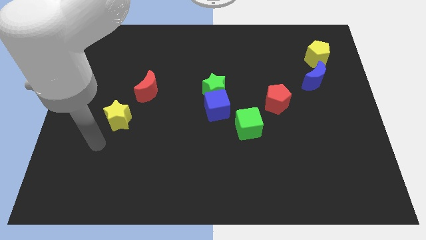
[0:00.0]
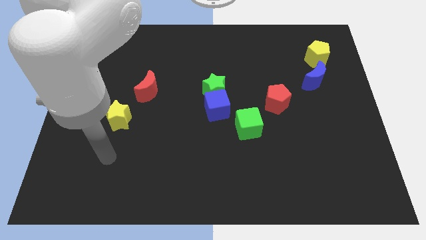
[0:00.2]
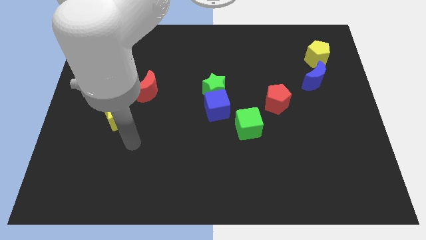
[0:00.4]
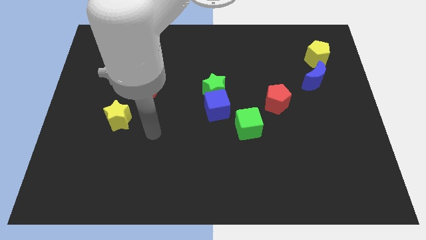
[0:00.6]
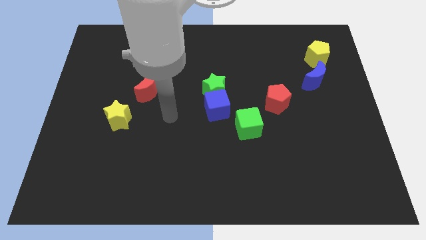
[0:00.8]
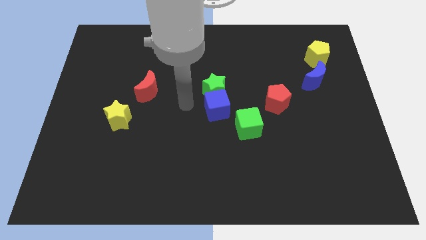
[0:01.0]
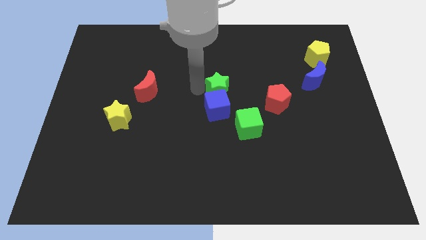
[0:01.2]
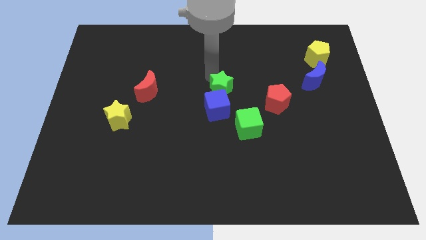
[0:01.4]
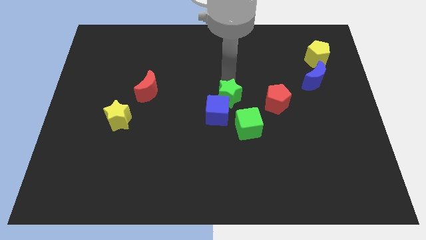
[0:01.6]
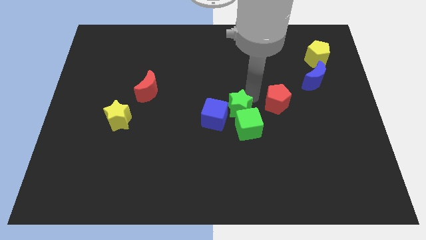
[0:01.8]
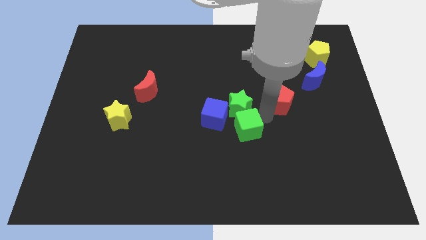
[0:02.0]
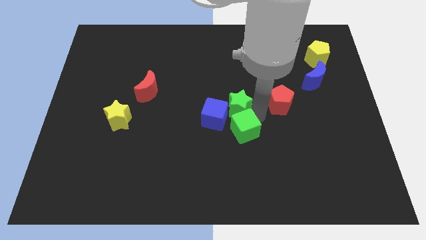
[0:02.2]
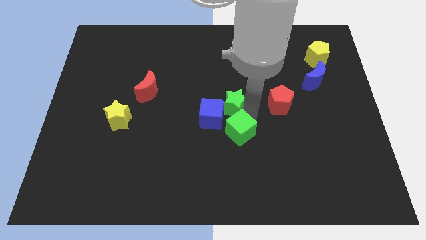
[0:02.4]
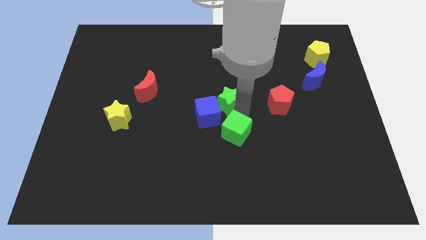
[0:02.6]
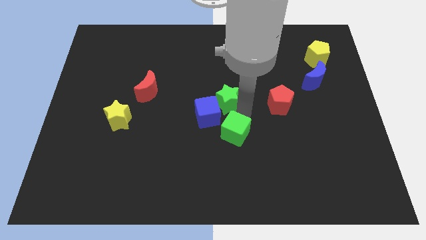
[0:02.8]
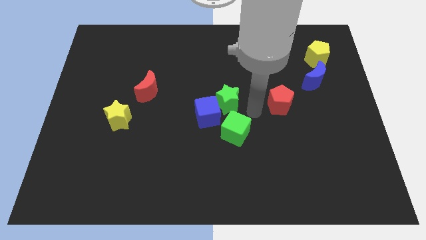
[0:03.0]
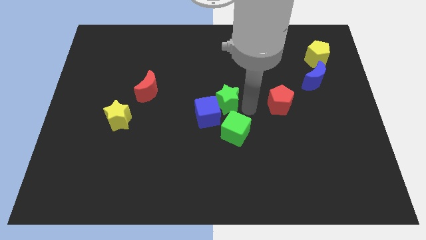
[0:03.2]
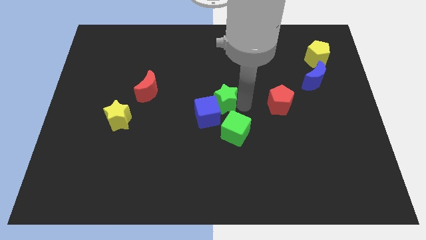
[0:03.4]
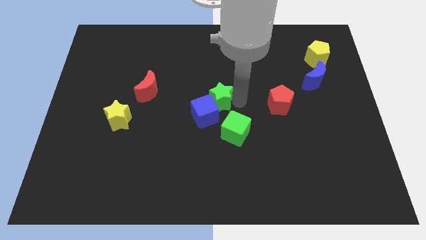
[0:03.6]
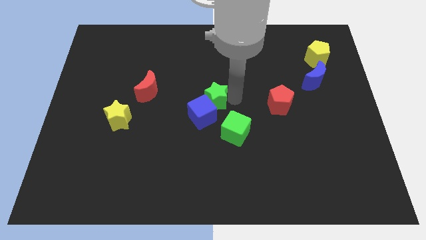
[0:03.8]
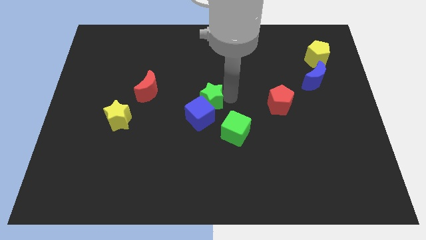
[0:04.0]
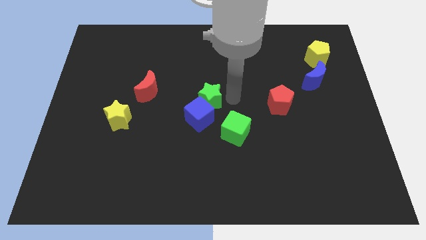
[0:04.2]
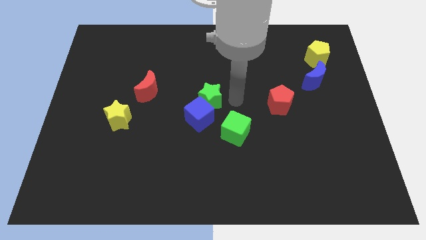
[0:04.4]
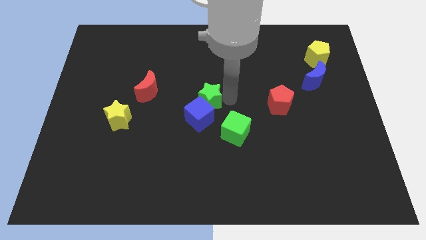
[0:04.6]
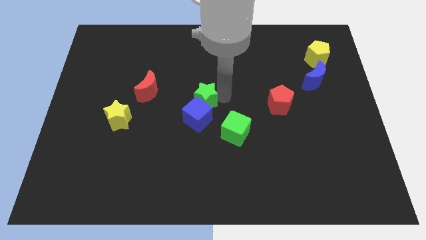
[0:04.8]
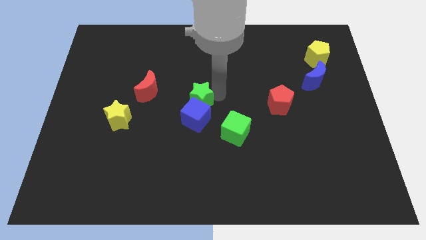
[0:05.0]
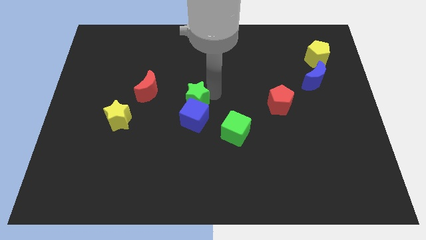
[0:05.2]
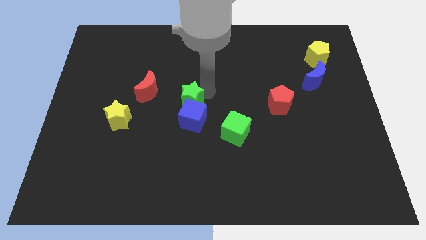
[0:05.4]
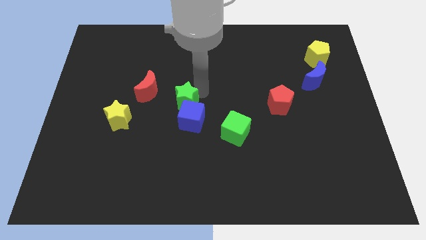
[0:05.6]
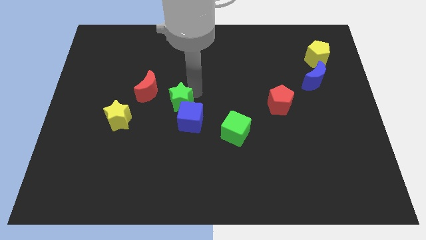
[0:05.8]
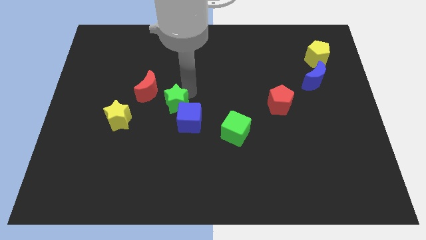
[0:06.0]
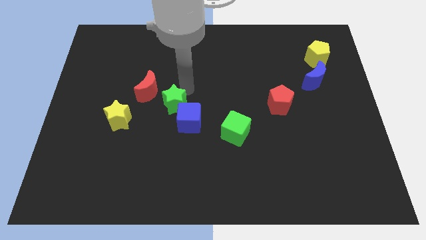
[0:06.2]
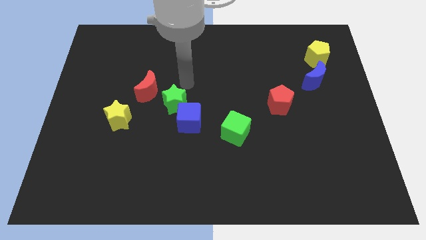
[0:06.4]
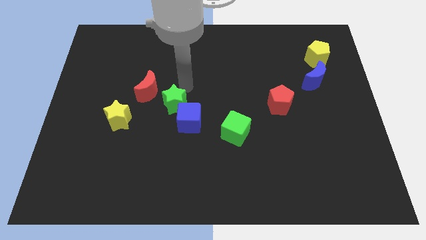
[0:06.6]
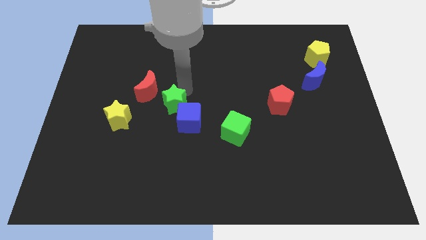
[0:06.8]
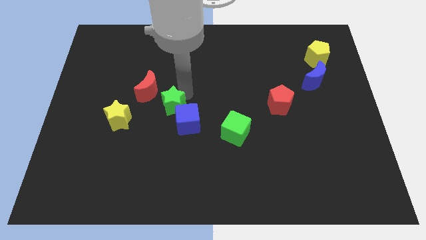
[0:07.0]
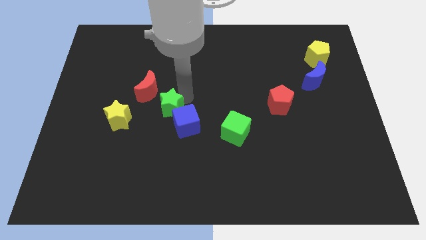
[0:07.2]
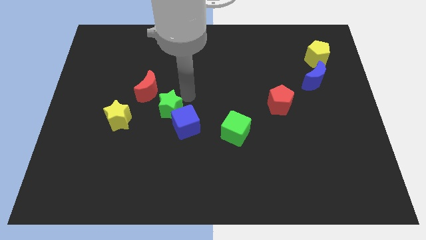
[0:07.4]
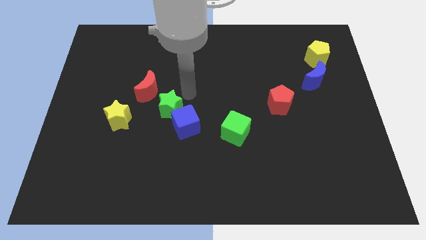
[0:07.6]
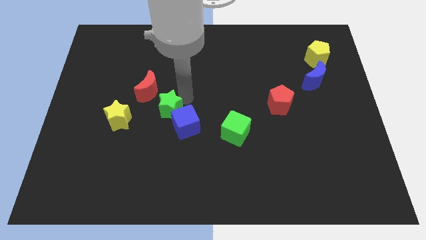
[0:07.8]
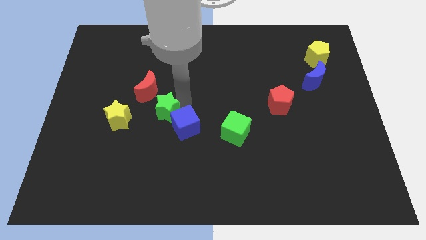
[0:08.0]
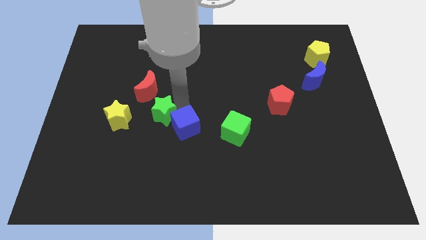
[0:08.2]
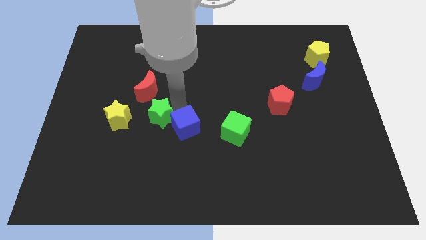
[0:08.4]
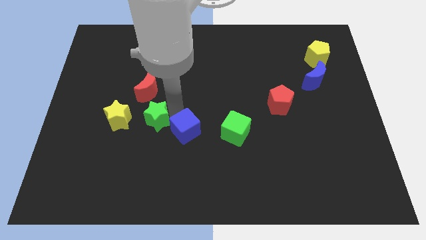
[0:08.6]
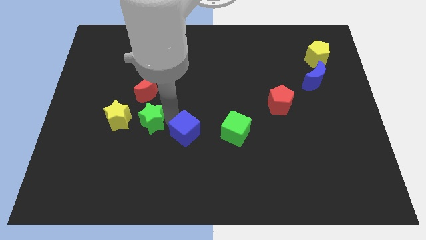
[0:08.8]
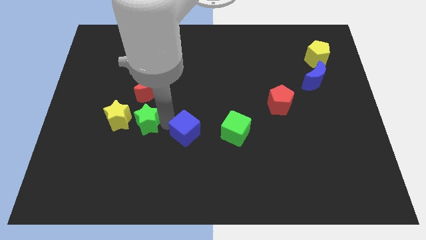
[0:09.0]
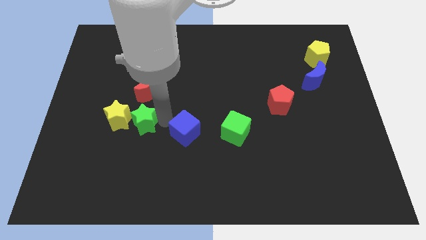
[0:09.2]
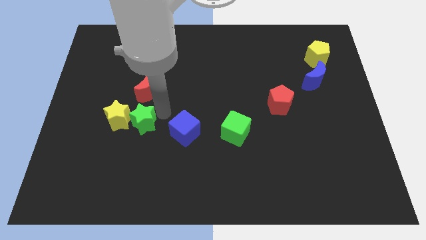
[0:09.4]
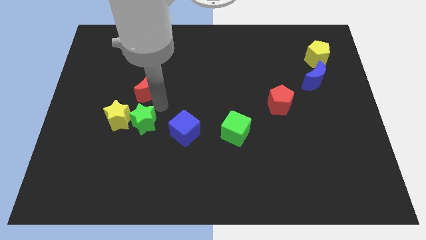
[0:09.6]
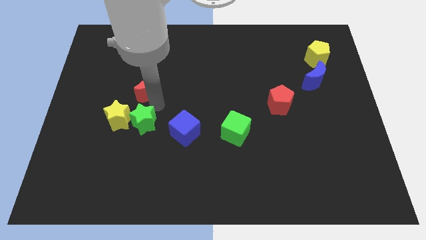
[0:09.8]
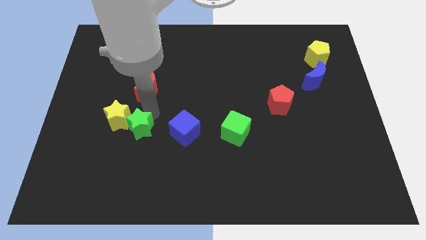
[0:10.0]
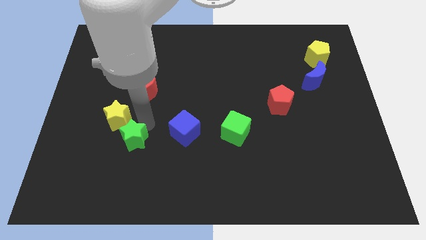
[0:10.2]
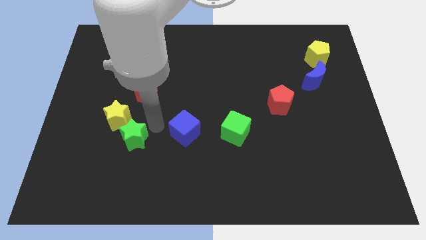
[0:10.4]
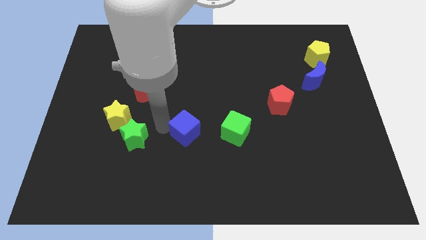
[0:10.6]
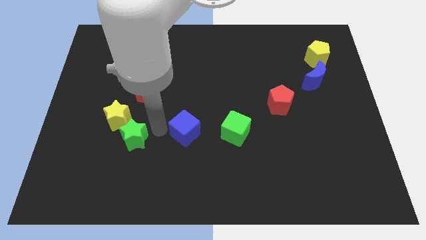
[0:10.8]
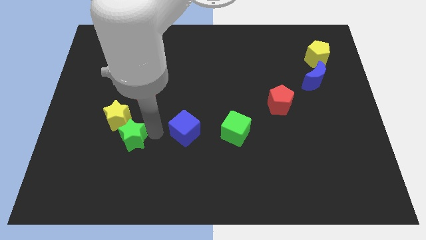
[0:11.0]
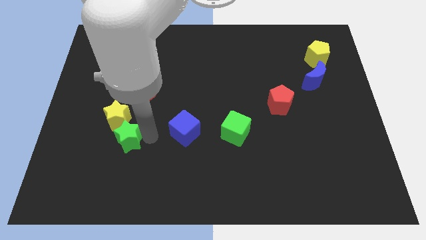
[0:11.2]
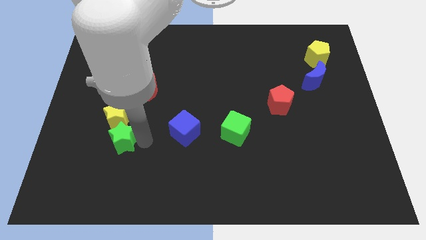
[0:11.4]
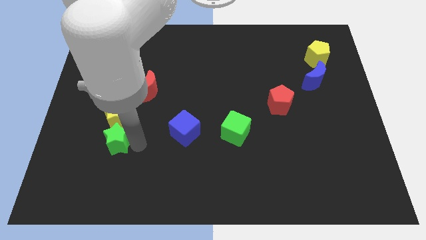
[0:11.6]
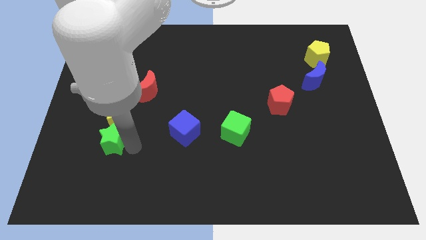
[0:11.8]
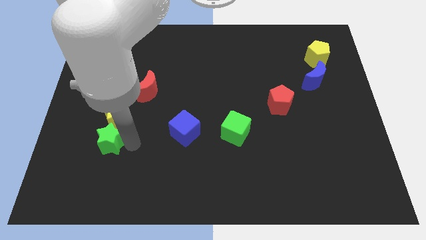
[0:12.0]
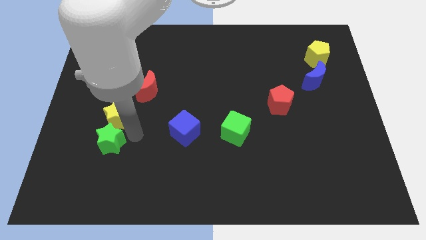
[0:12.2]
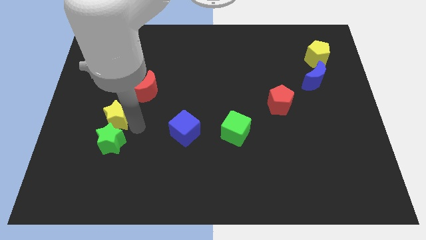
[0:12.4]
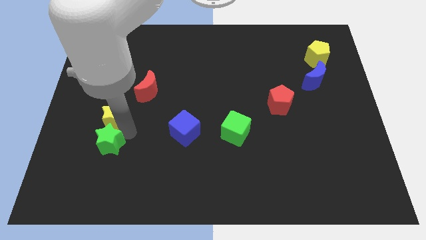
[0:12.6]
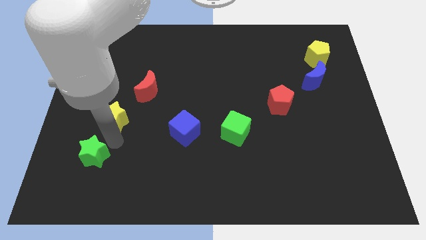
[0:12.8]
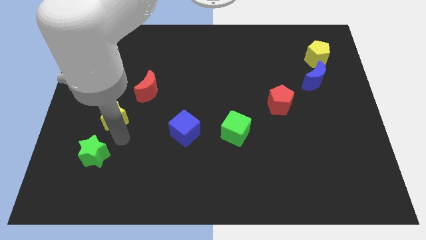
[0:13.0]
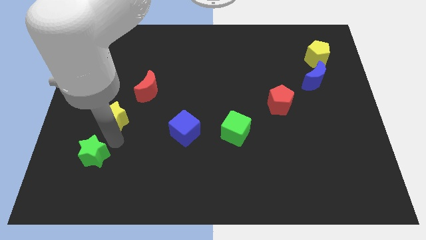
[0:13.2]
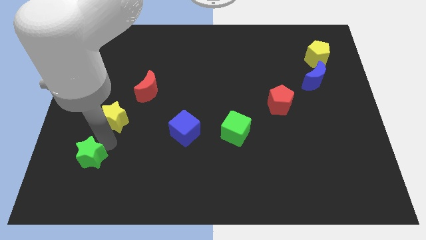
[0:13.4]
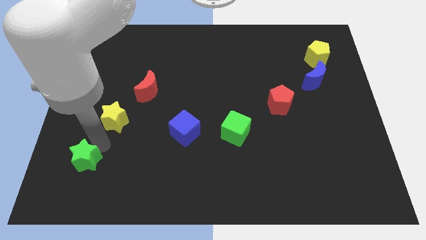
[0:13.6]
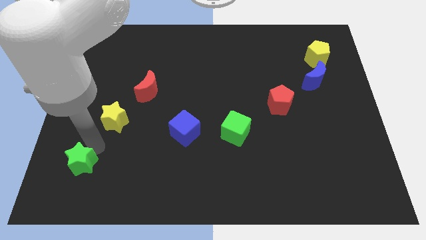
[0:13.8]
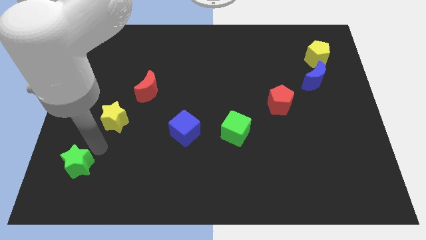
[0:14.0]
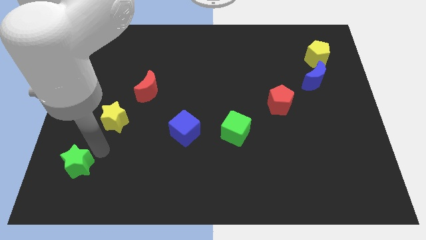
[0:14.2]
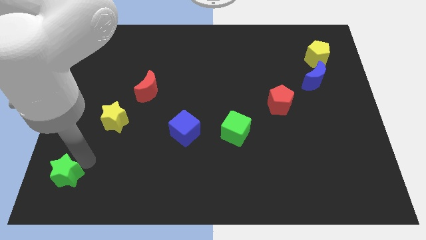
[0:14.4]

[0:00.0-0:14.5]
push the green star to the bottom left of the board
